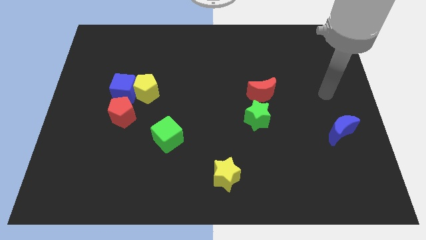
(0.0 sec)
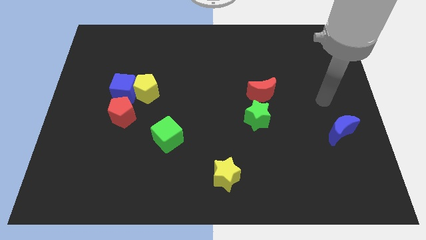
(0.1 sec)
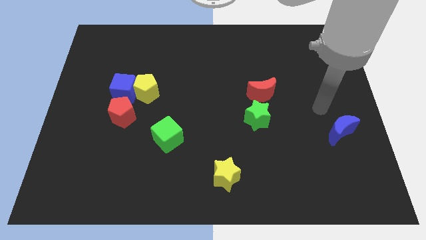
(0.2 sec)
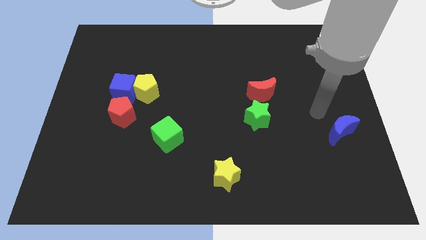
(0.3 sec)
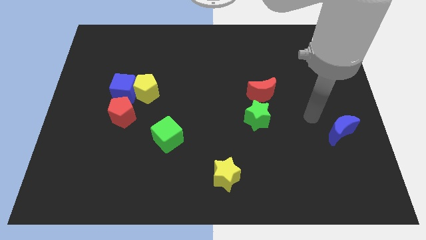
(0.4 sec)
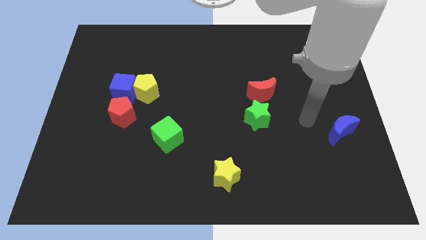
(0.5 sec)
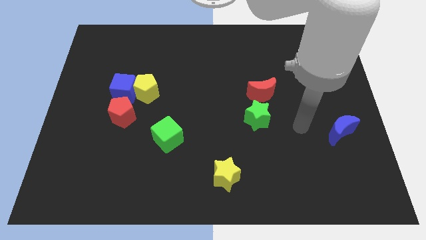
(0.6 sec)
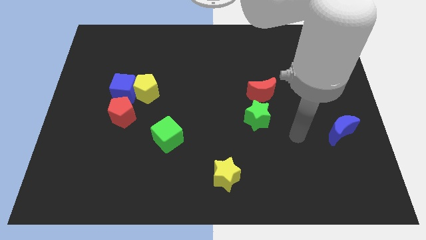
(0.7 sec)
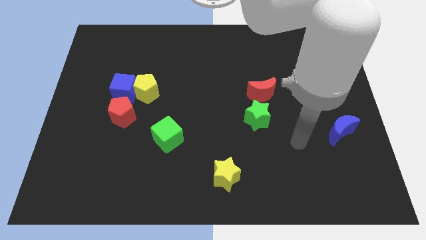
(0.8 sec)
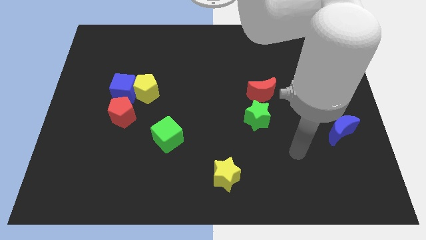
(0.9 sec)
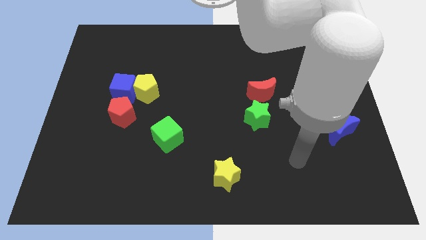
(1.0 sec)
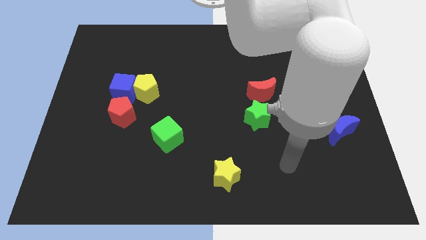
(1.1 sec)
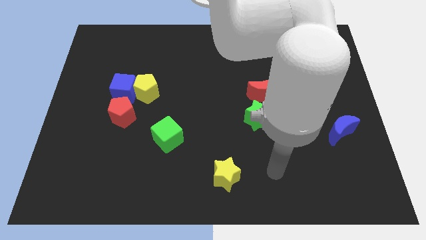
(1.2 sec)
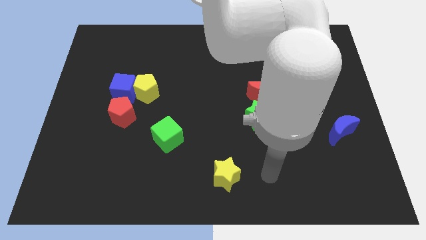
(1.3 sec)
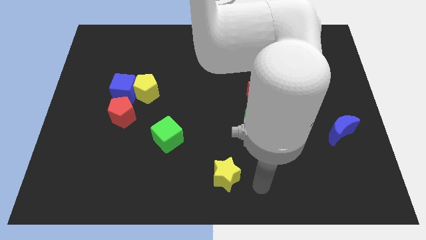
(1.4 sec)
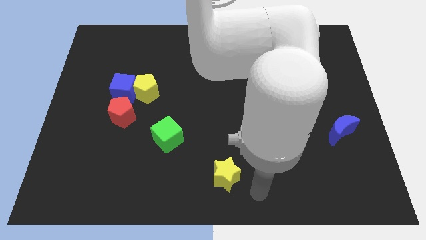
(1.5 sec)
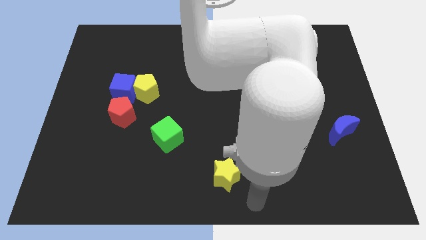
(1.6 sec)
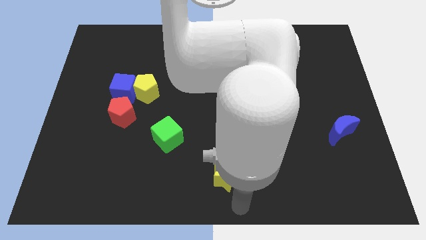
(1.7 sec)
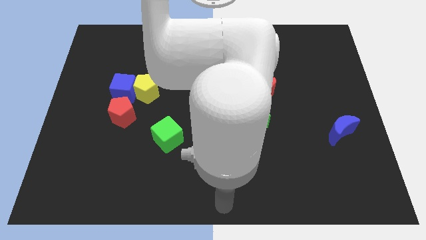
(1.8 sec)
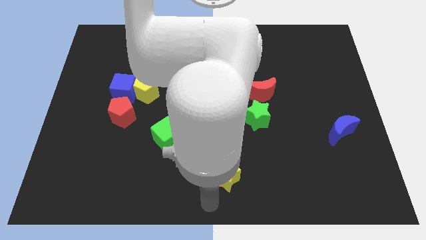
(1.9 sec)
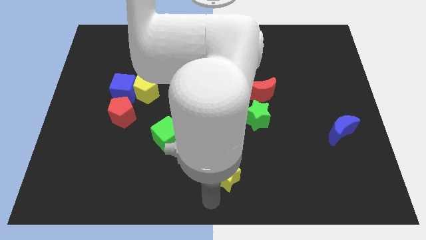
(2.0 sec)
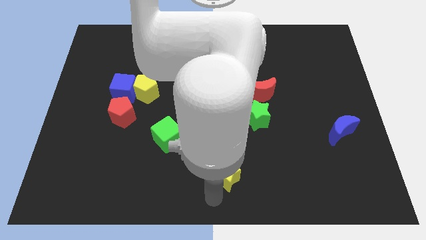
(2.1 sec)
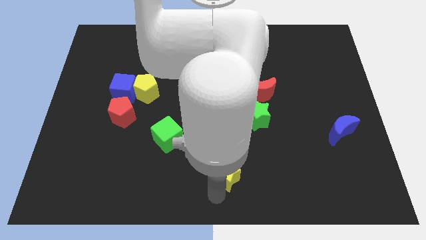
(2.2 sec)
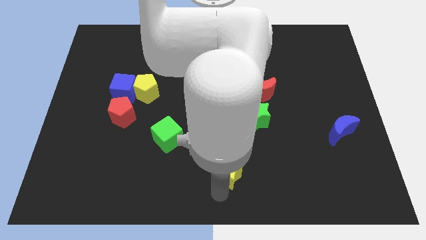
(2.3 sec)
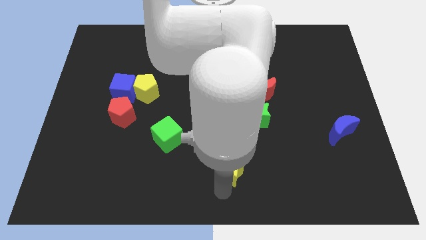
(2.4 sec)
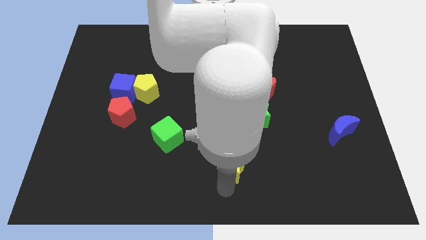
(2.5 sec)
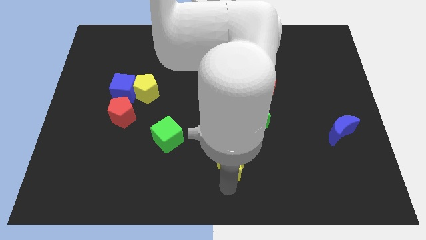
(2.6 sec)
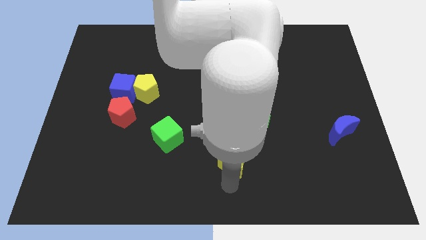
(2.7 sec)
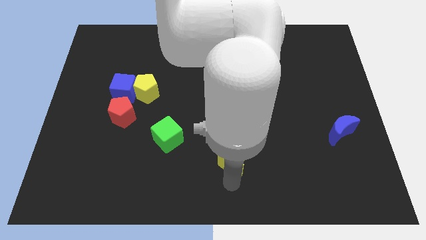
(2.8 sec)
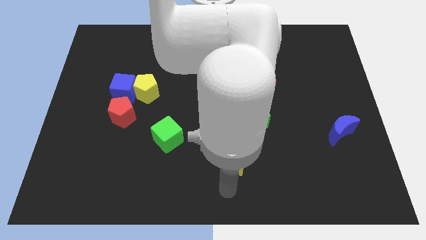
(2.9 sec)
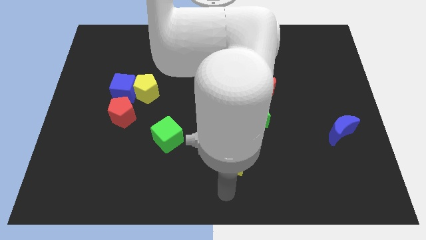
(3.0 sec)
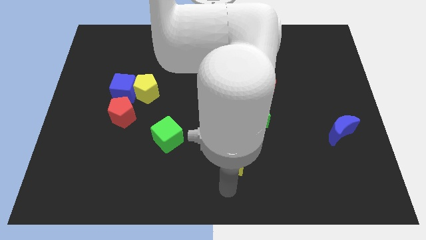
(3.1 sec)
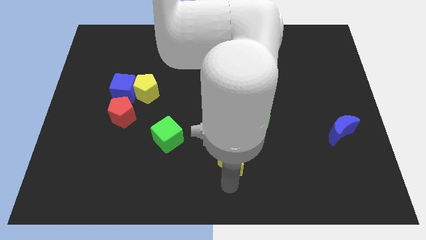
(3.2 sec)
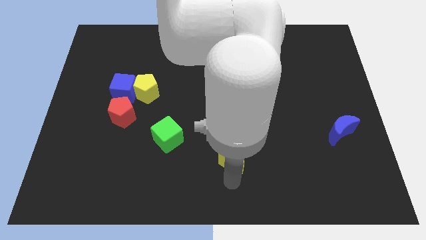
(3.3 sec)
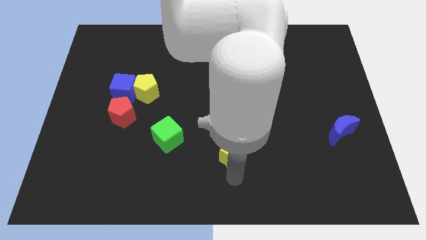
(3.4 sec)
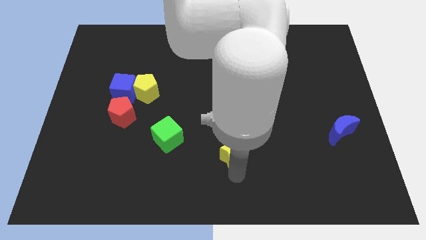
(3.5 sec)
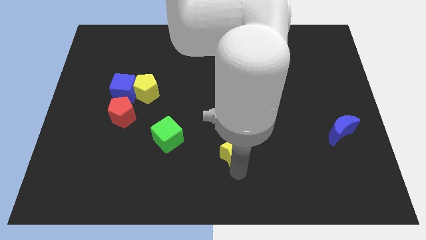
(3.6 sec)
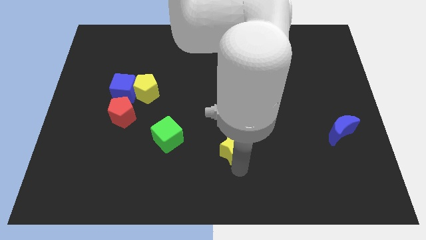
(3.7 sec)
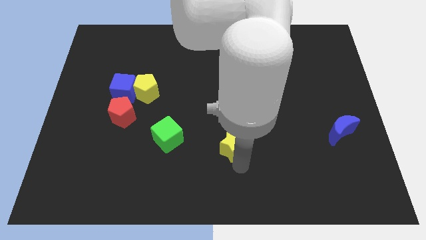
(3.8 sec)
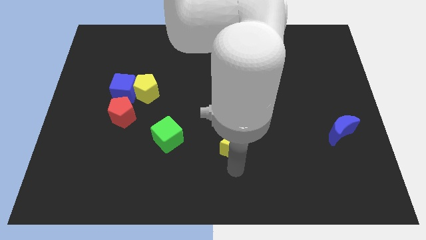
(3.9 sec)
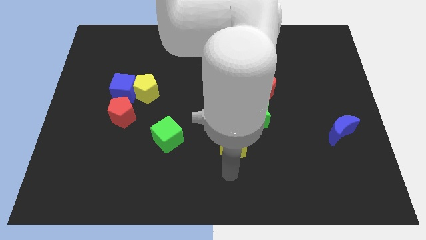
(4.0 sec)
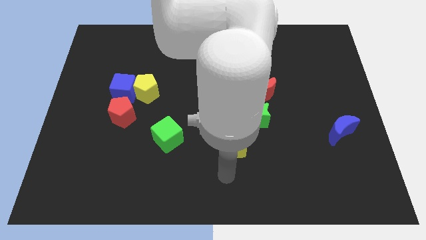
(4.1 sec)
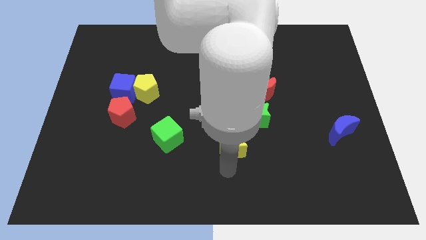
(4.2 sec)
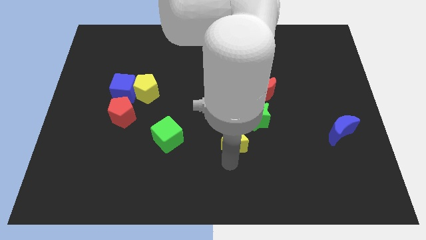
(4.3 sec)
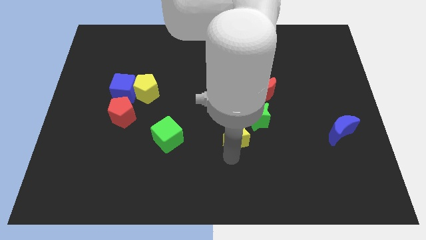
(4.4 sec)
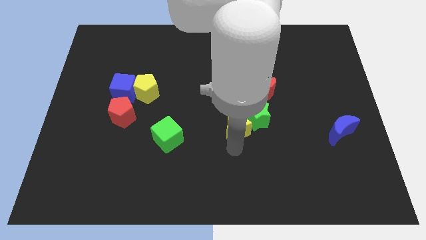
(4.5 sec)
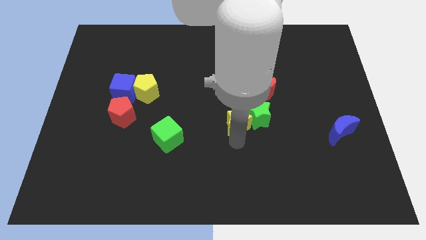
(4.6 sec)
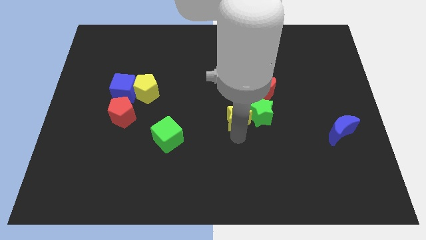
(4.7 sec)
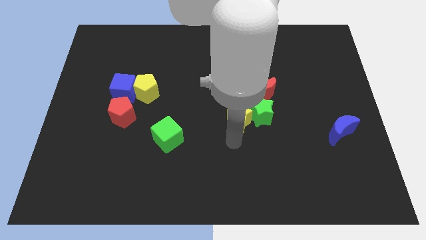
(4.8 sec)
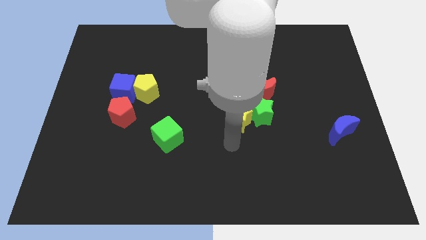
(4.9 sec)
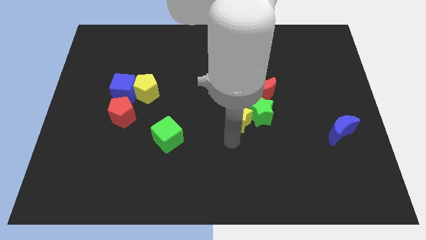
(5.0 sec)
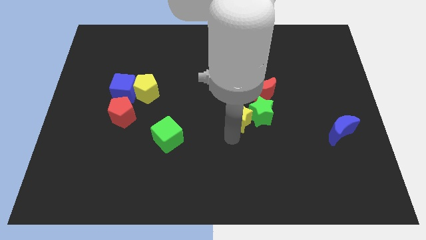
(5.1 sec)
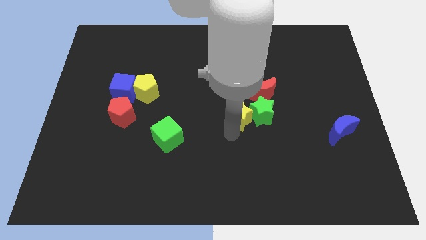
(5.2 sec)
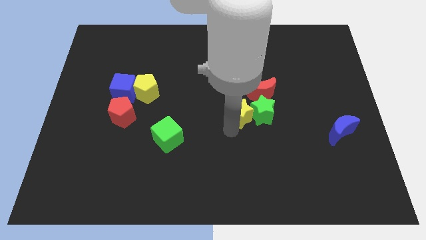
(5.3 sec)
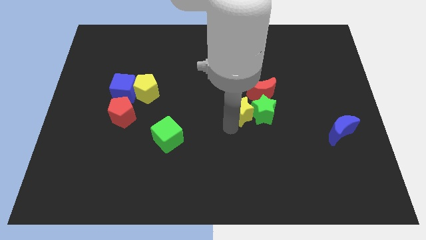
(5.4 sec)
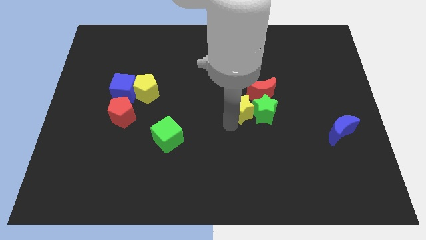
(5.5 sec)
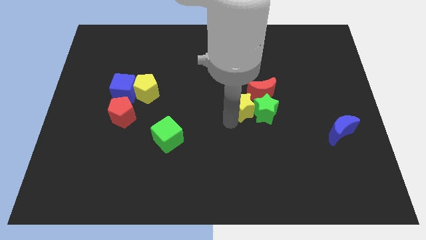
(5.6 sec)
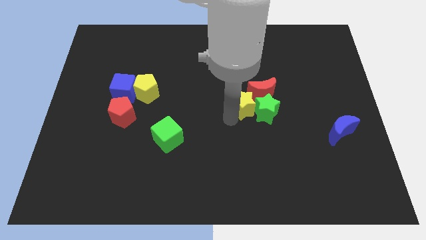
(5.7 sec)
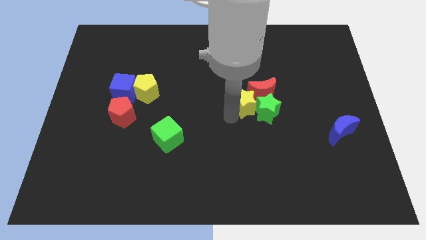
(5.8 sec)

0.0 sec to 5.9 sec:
put the yellow star close to the red moon

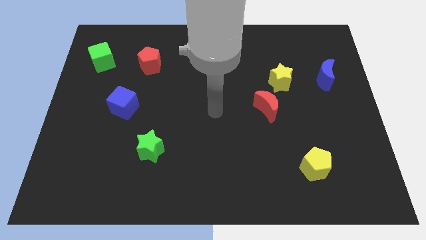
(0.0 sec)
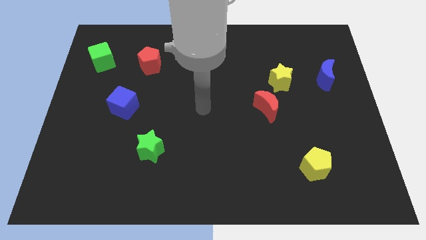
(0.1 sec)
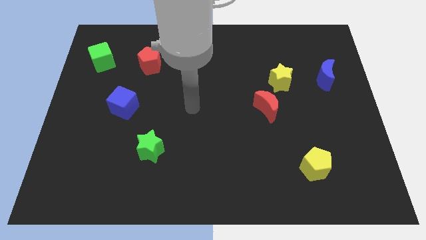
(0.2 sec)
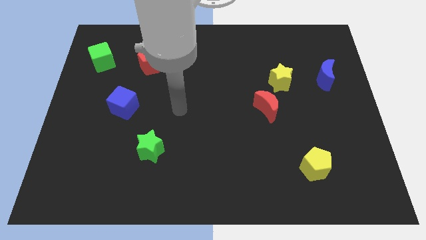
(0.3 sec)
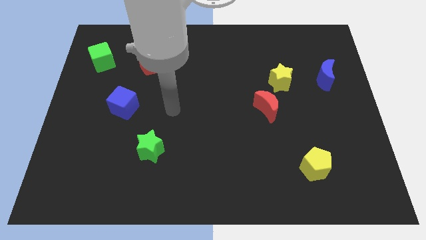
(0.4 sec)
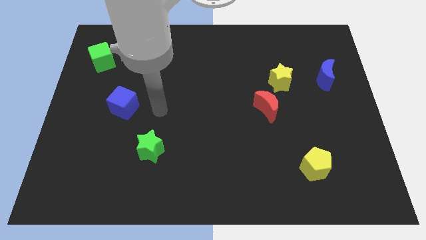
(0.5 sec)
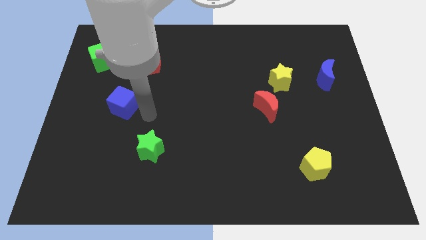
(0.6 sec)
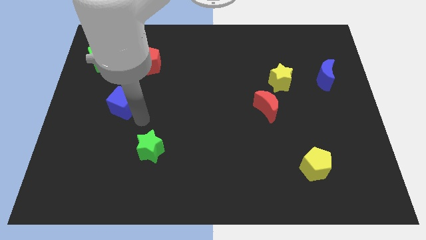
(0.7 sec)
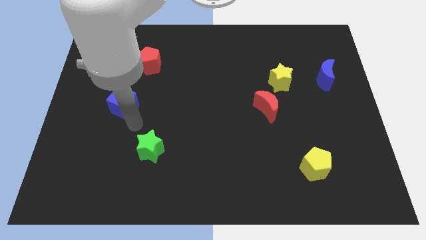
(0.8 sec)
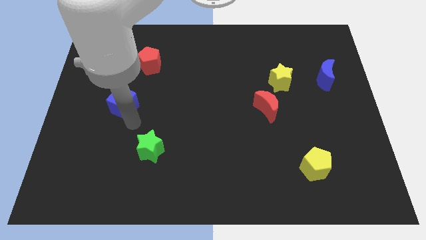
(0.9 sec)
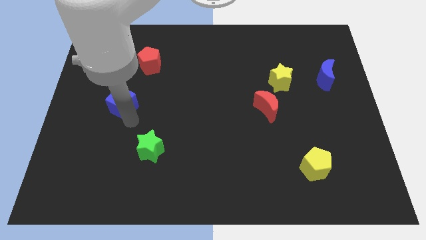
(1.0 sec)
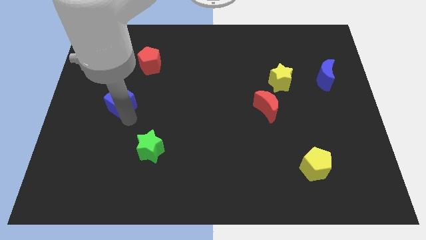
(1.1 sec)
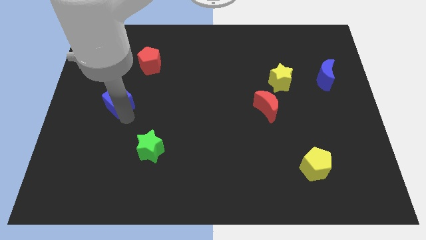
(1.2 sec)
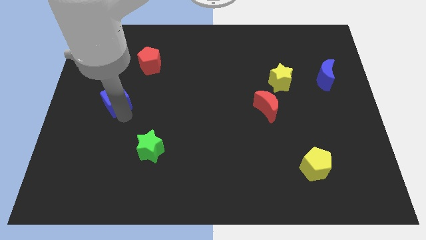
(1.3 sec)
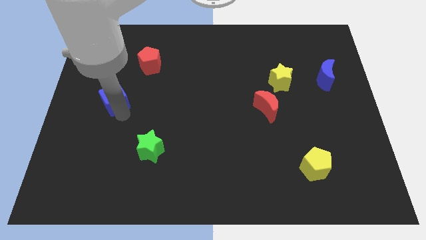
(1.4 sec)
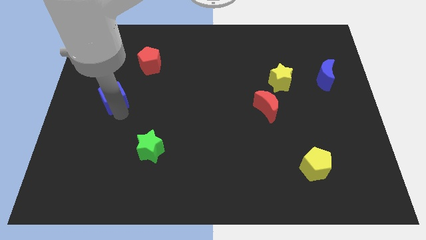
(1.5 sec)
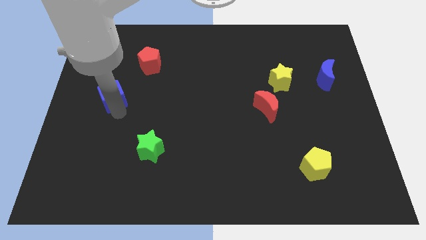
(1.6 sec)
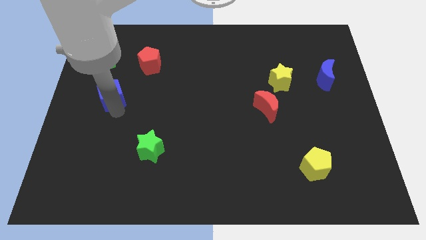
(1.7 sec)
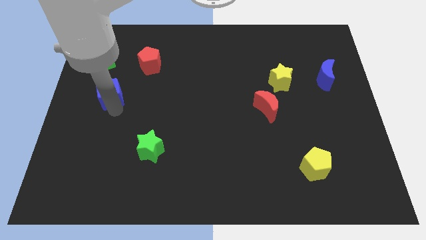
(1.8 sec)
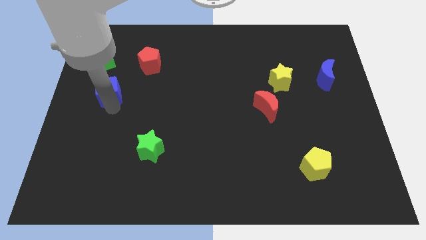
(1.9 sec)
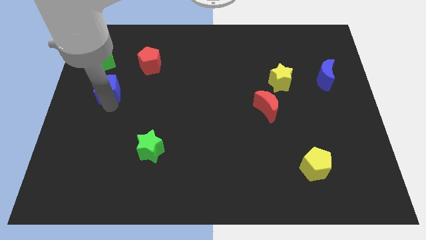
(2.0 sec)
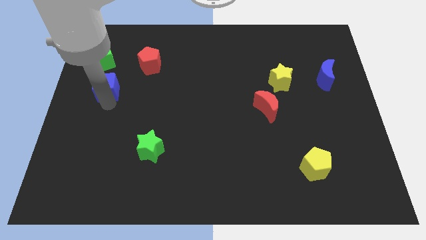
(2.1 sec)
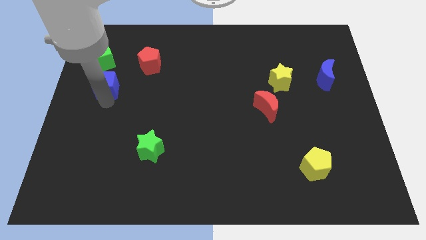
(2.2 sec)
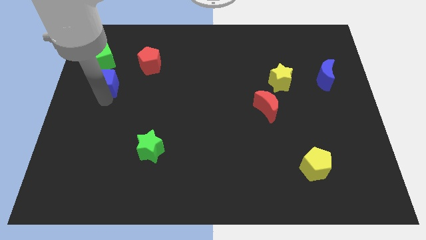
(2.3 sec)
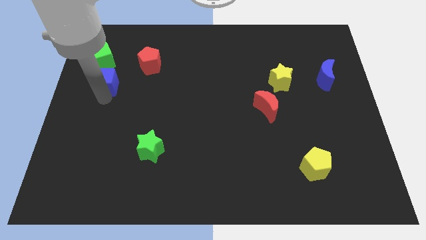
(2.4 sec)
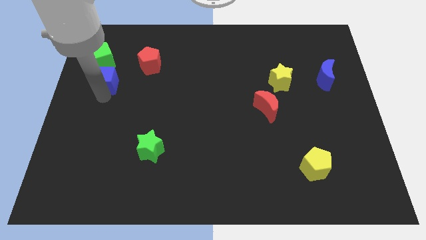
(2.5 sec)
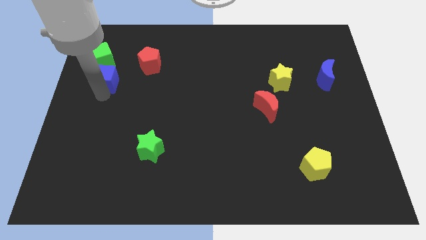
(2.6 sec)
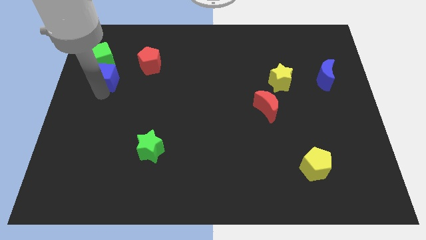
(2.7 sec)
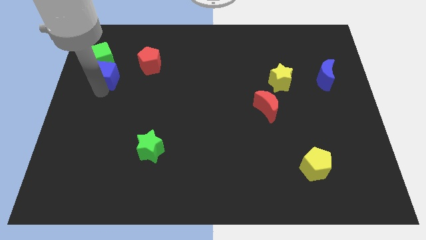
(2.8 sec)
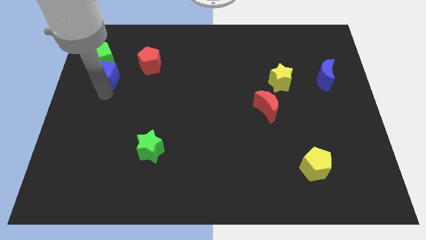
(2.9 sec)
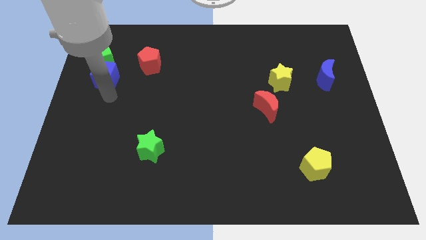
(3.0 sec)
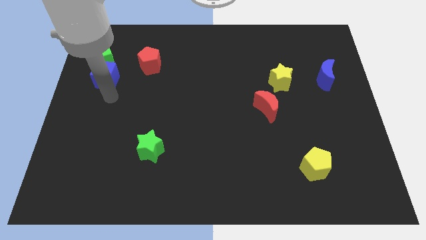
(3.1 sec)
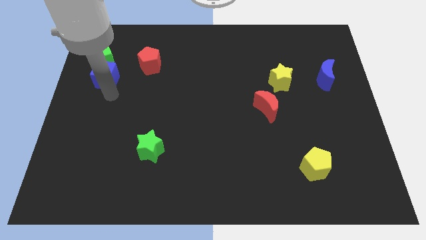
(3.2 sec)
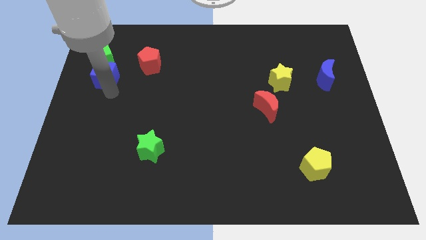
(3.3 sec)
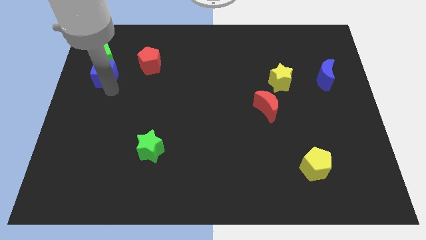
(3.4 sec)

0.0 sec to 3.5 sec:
slide the blue cube to the green cube
